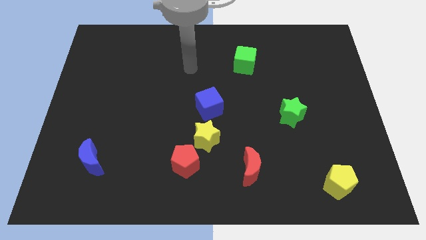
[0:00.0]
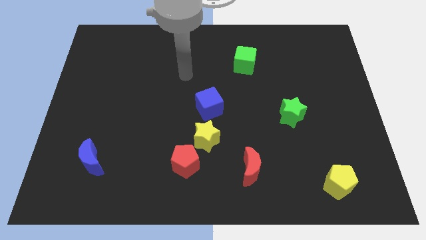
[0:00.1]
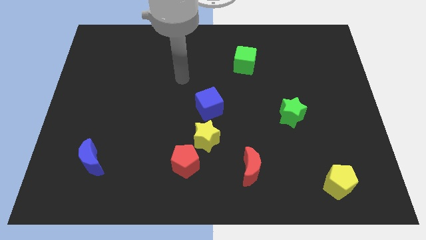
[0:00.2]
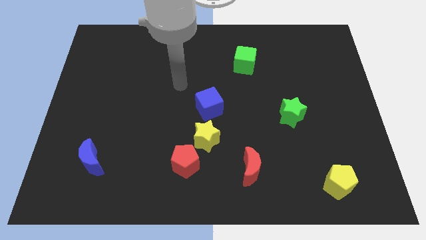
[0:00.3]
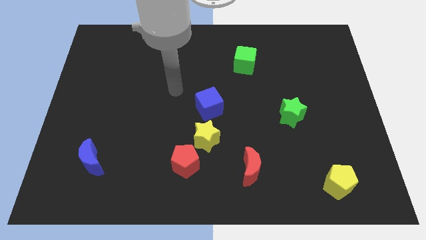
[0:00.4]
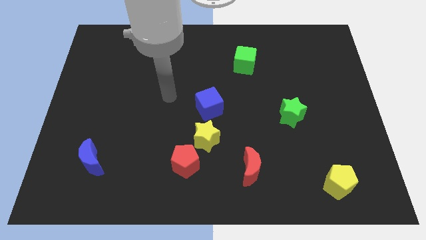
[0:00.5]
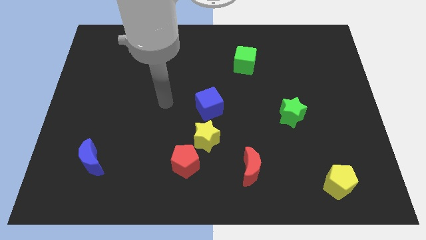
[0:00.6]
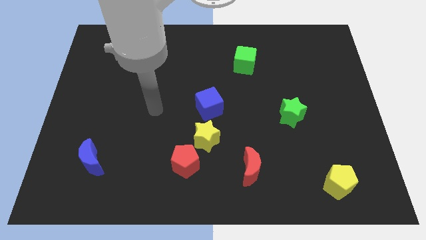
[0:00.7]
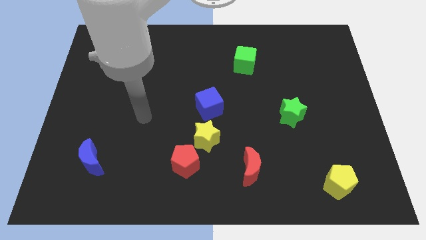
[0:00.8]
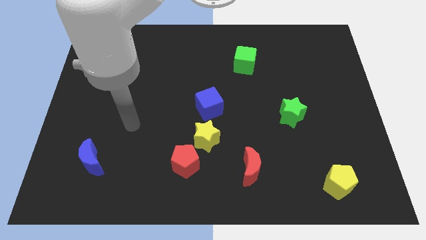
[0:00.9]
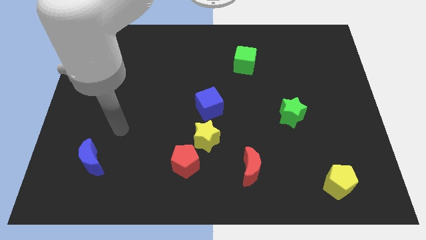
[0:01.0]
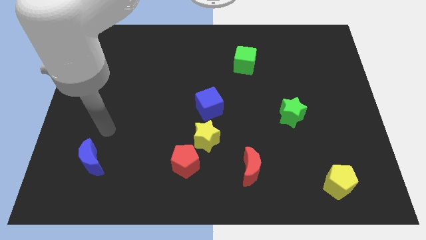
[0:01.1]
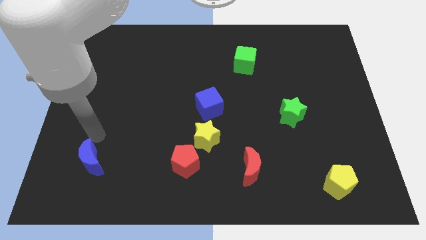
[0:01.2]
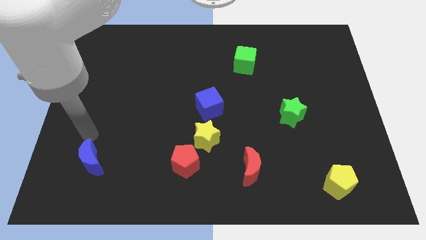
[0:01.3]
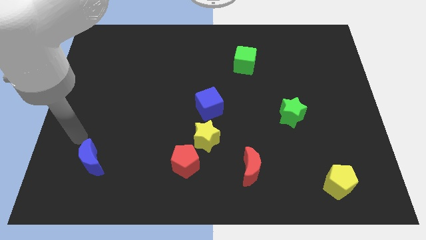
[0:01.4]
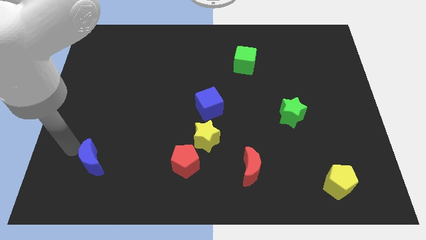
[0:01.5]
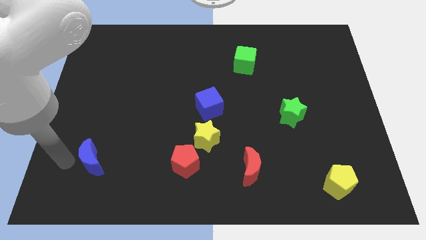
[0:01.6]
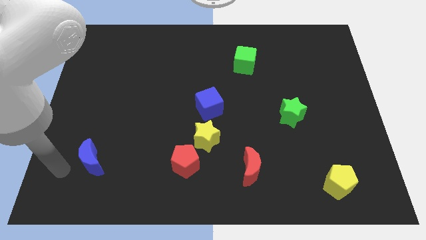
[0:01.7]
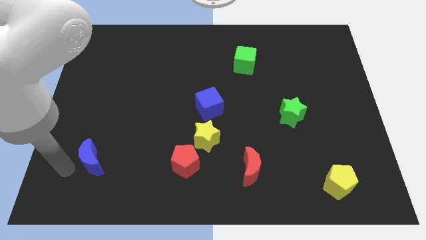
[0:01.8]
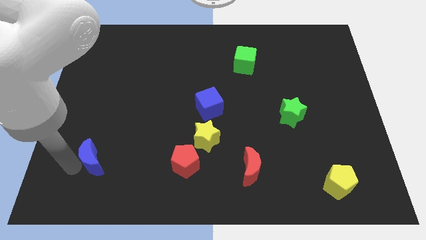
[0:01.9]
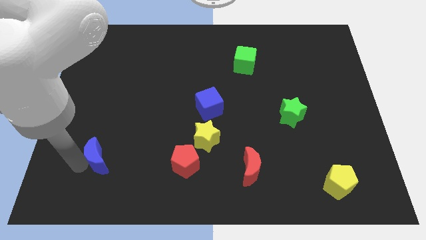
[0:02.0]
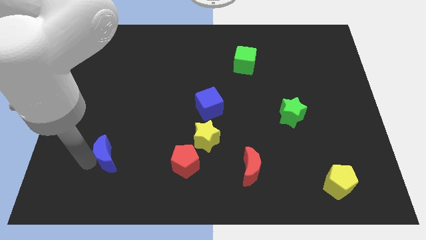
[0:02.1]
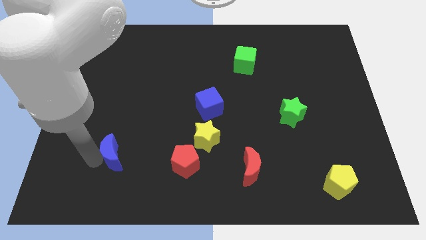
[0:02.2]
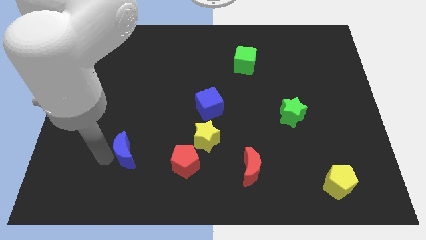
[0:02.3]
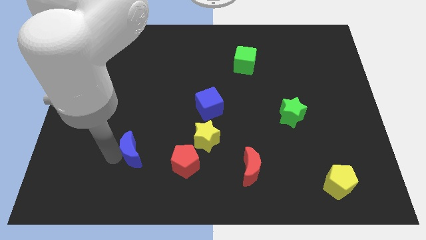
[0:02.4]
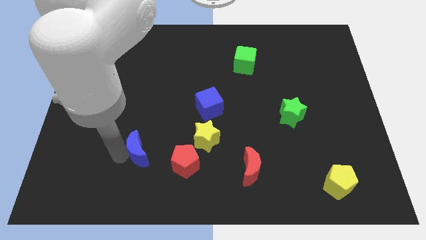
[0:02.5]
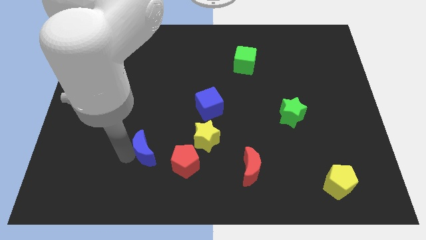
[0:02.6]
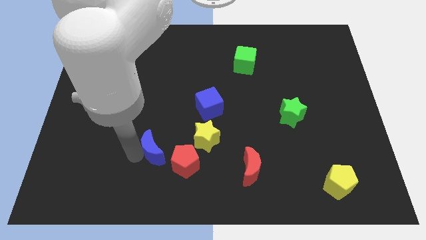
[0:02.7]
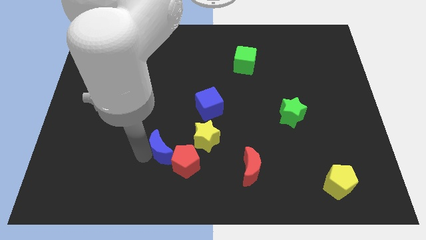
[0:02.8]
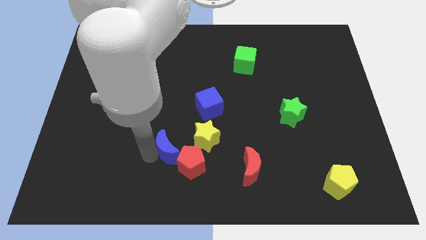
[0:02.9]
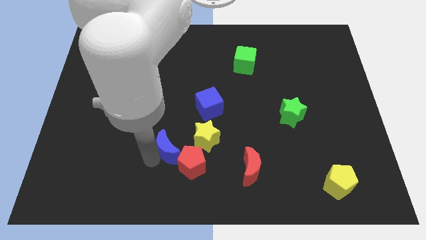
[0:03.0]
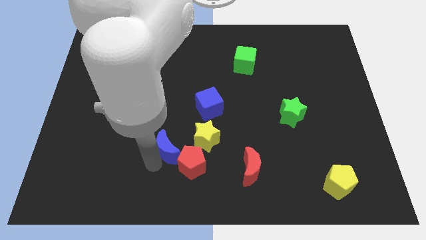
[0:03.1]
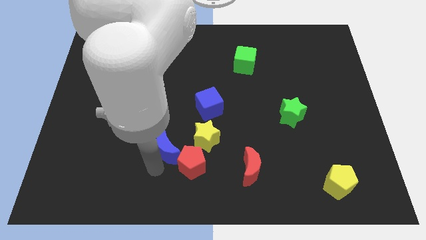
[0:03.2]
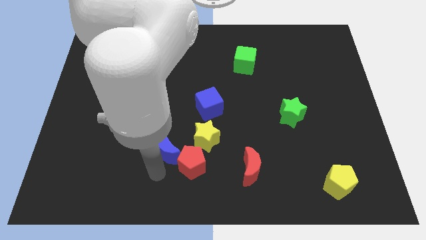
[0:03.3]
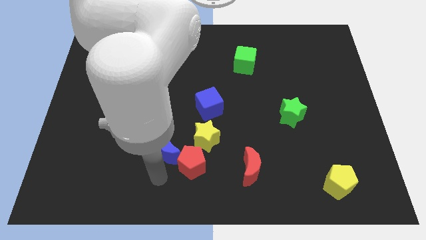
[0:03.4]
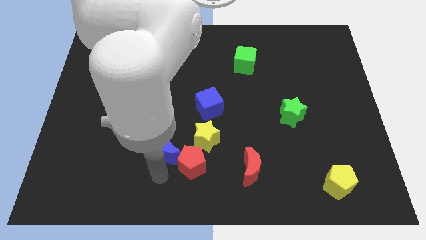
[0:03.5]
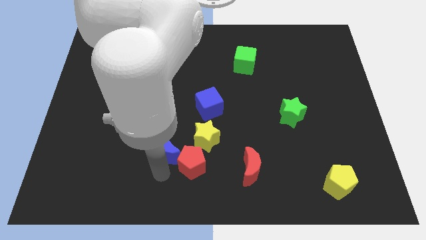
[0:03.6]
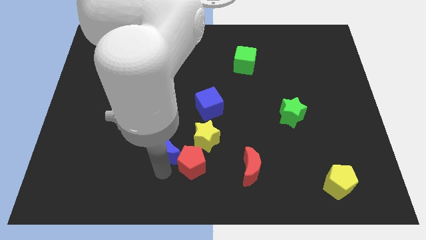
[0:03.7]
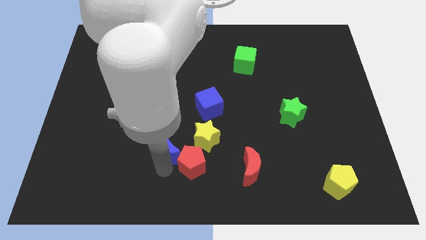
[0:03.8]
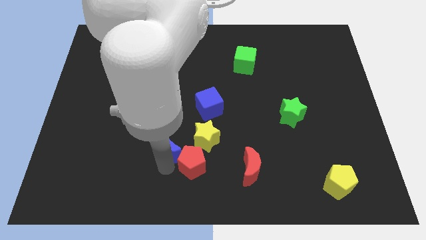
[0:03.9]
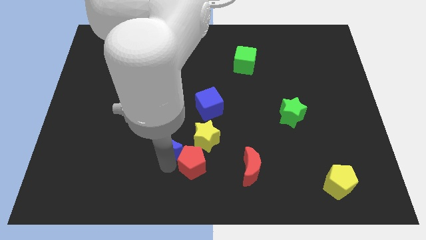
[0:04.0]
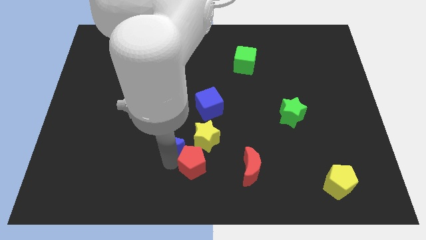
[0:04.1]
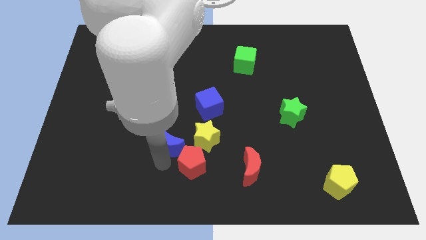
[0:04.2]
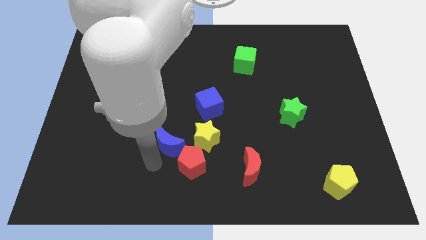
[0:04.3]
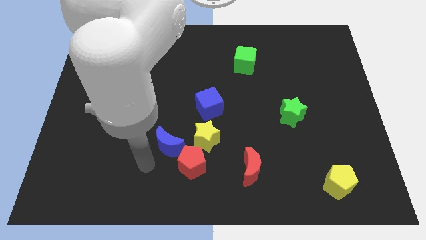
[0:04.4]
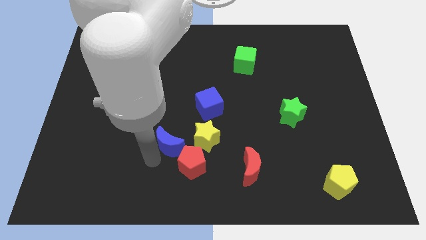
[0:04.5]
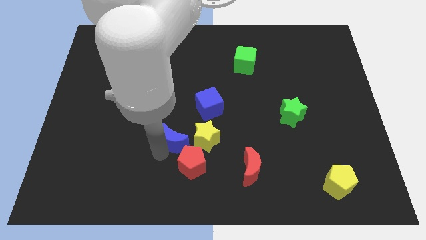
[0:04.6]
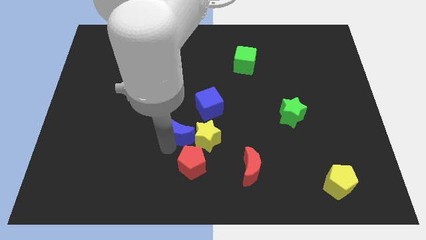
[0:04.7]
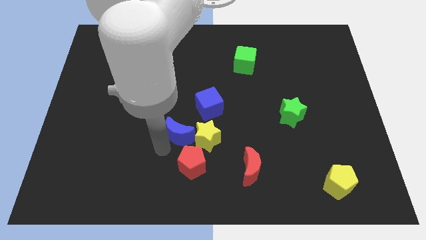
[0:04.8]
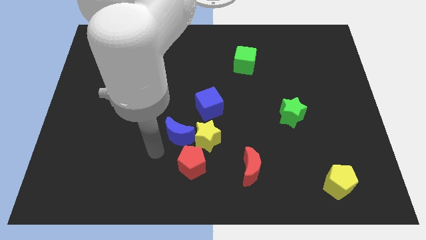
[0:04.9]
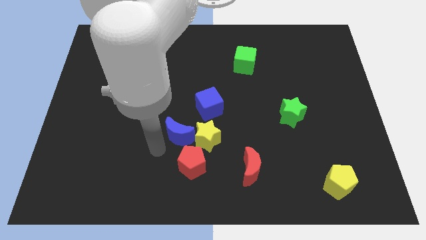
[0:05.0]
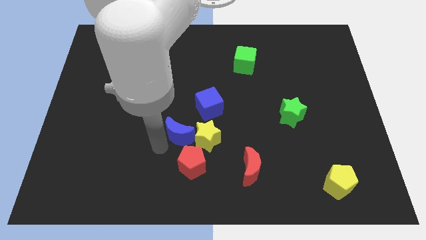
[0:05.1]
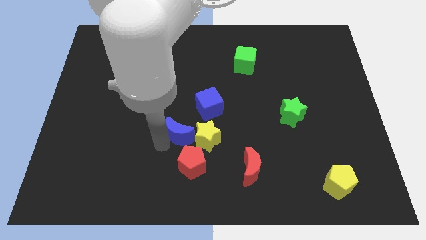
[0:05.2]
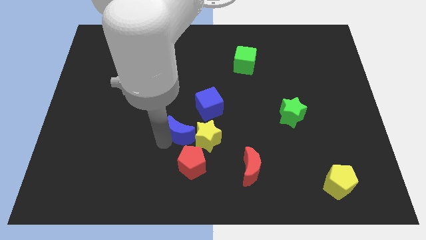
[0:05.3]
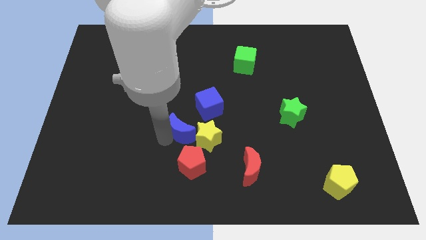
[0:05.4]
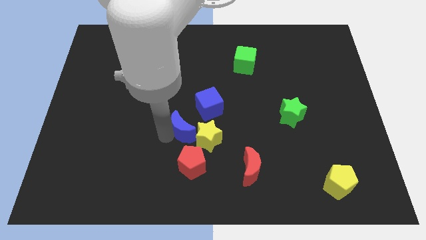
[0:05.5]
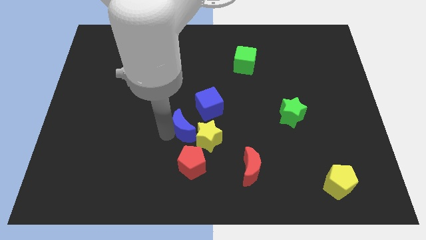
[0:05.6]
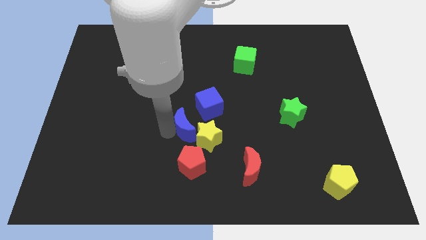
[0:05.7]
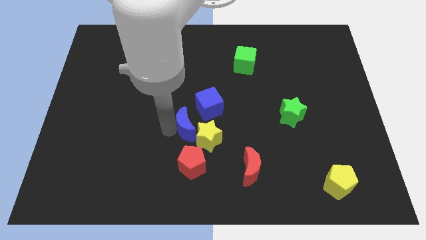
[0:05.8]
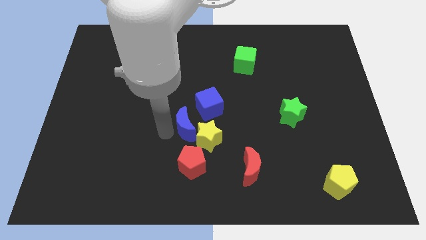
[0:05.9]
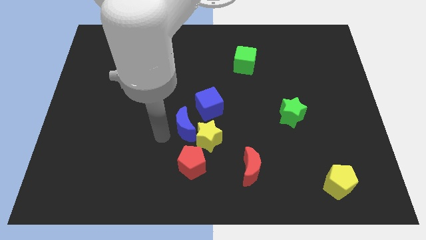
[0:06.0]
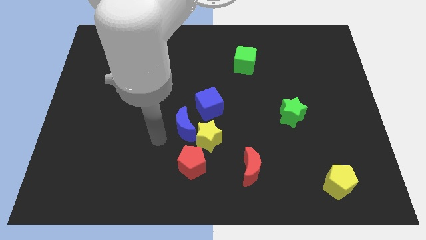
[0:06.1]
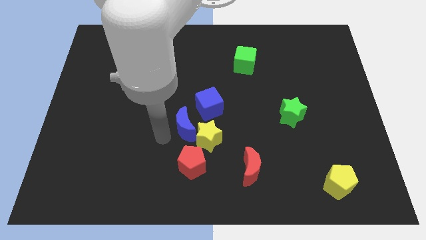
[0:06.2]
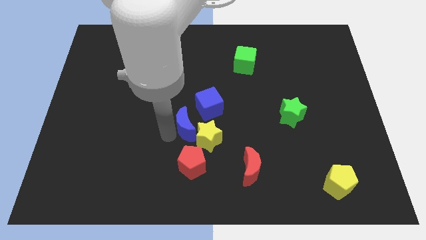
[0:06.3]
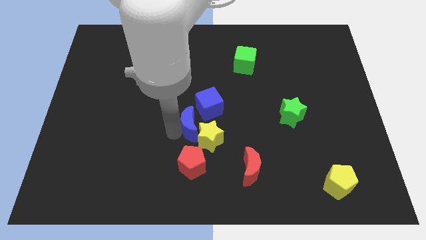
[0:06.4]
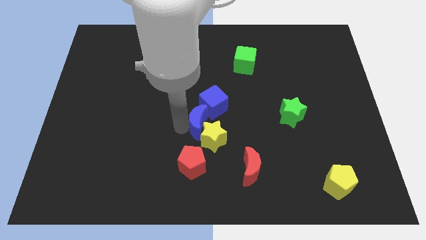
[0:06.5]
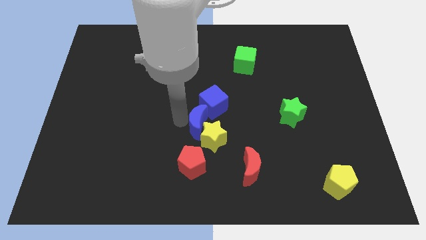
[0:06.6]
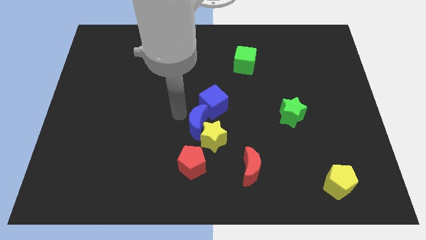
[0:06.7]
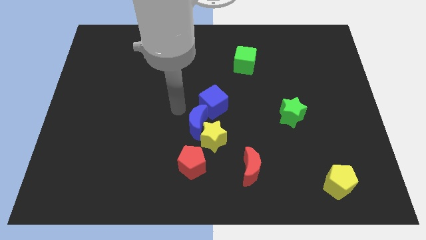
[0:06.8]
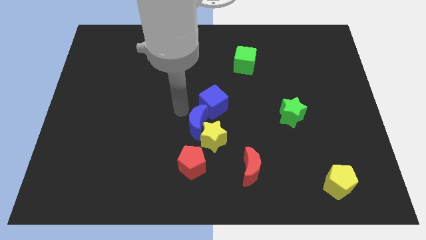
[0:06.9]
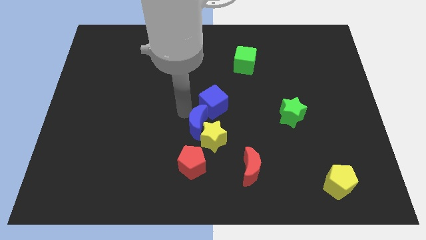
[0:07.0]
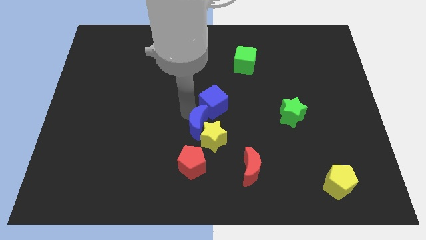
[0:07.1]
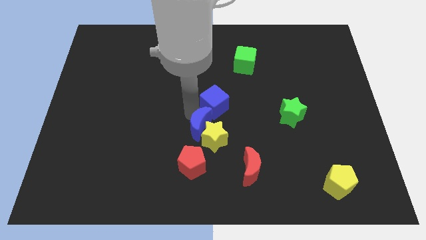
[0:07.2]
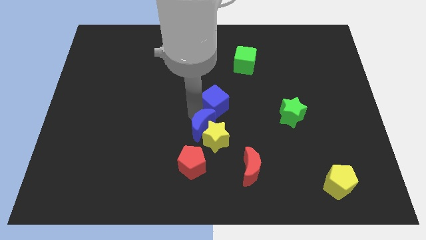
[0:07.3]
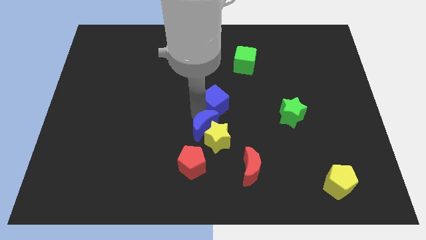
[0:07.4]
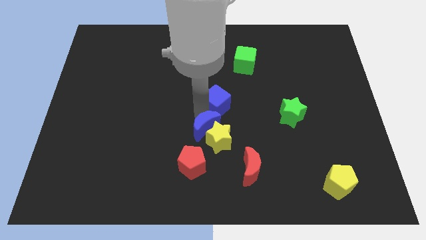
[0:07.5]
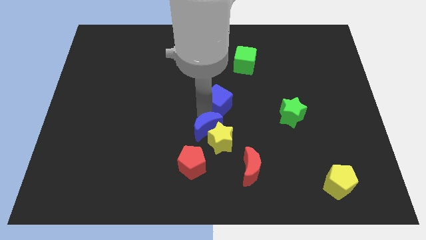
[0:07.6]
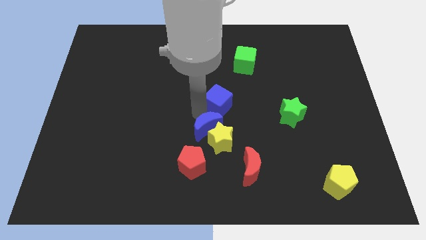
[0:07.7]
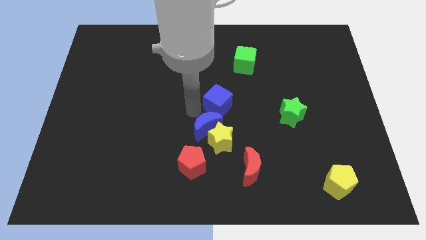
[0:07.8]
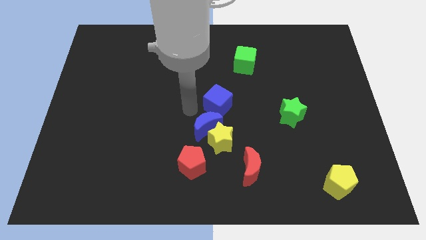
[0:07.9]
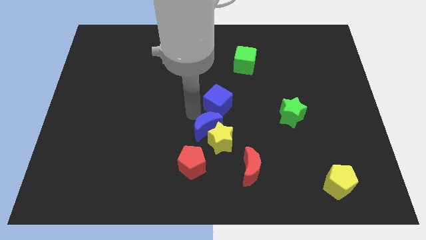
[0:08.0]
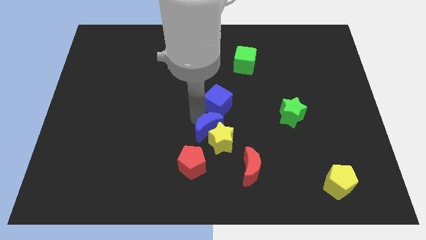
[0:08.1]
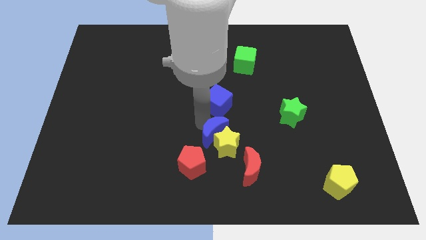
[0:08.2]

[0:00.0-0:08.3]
slide the blue moon to the top left of the red moon
